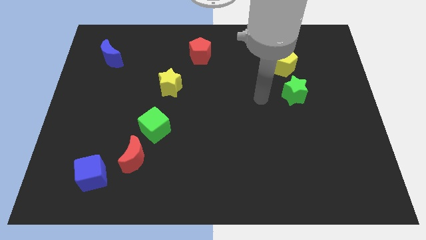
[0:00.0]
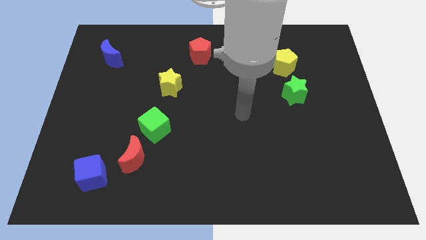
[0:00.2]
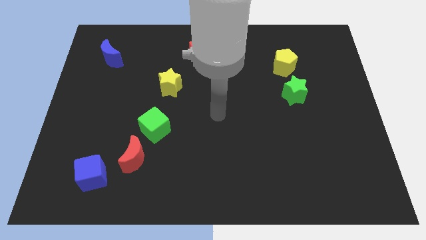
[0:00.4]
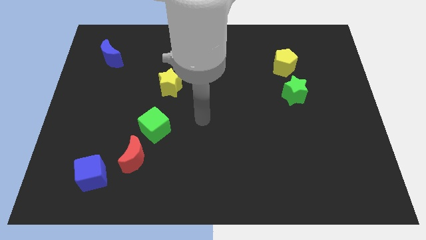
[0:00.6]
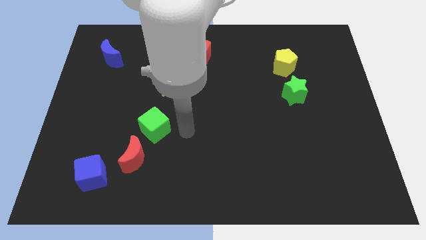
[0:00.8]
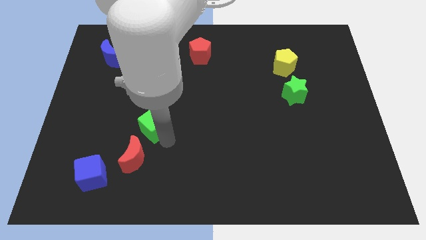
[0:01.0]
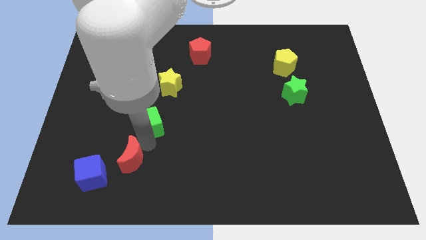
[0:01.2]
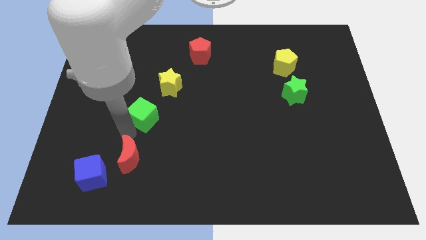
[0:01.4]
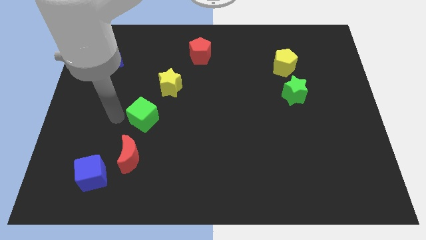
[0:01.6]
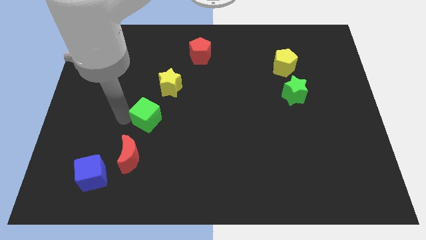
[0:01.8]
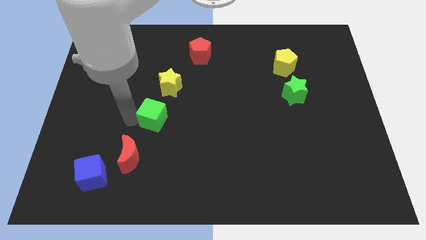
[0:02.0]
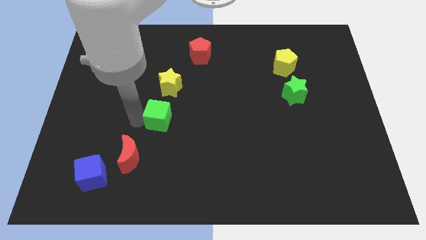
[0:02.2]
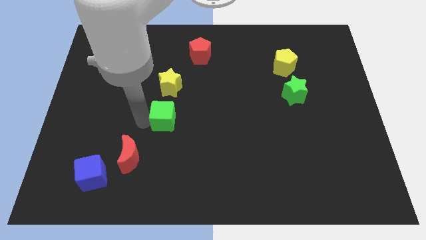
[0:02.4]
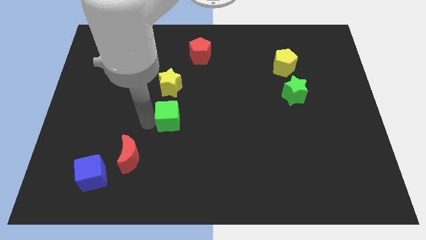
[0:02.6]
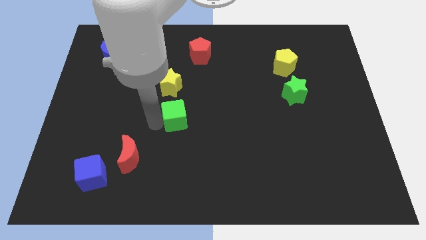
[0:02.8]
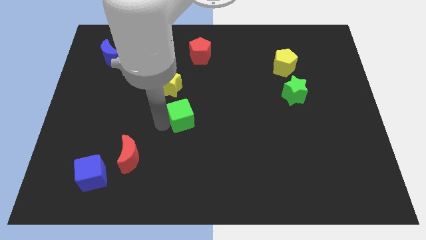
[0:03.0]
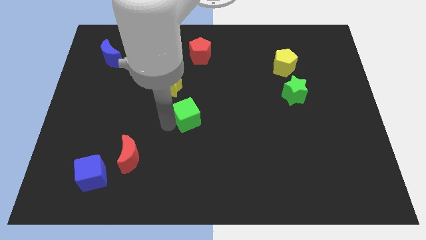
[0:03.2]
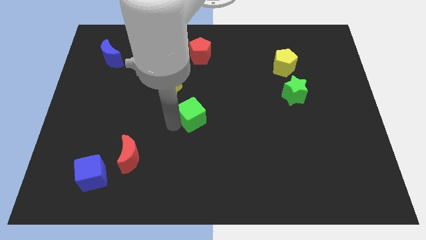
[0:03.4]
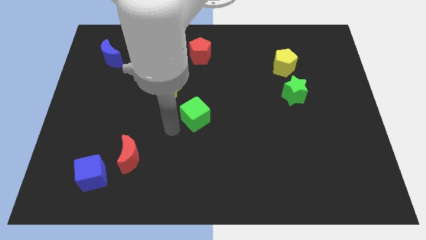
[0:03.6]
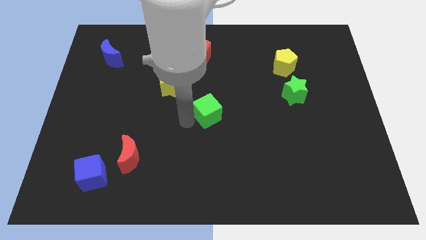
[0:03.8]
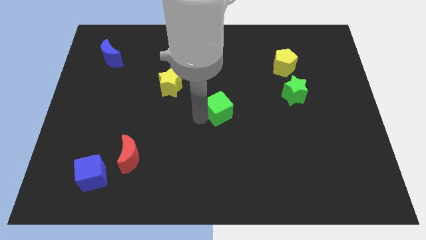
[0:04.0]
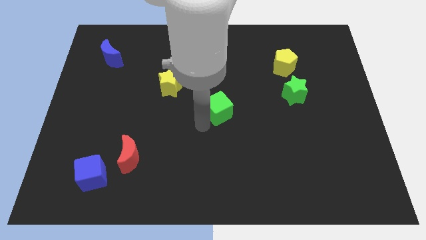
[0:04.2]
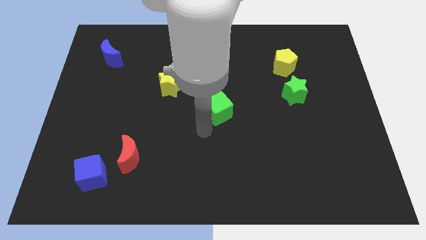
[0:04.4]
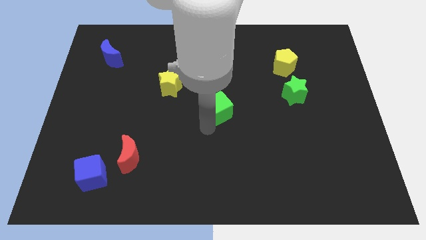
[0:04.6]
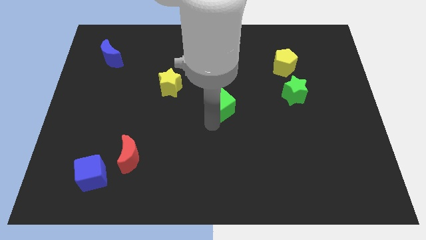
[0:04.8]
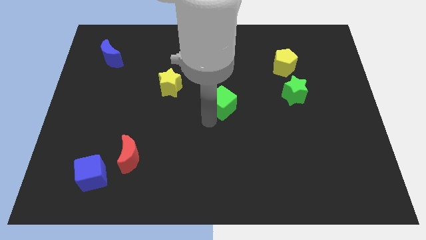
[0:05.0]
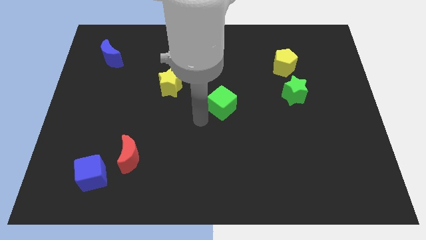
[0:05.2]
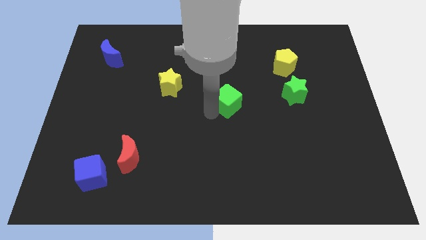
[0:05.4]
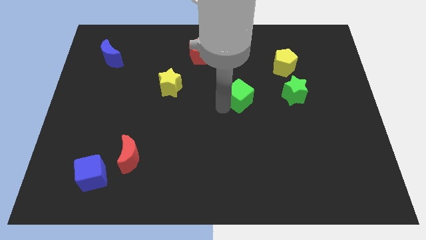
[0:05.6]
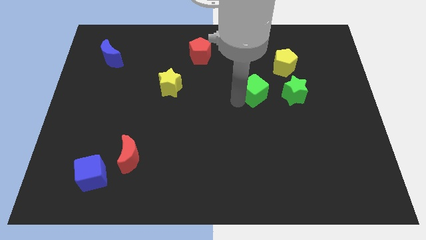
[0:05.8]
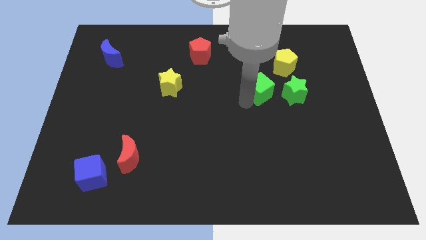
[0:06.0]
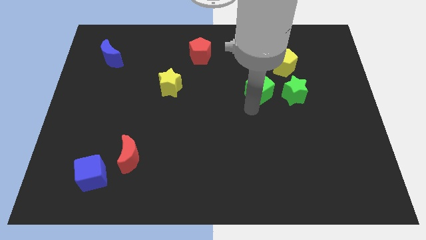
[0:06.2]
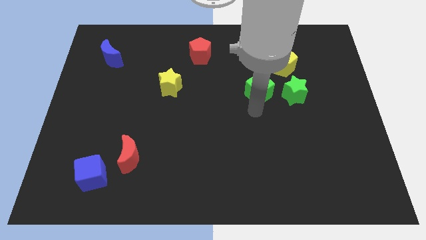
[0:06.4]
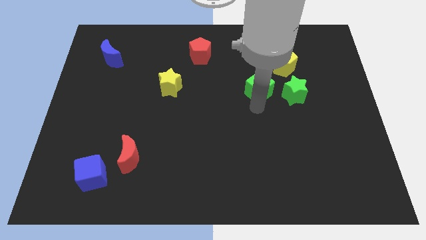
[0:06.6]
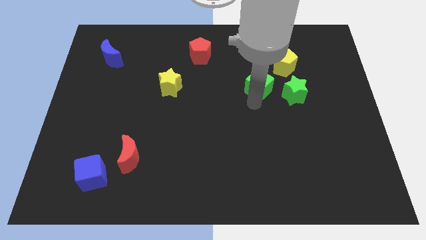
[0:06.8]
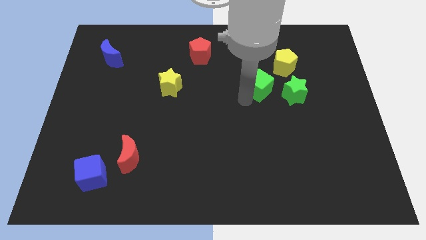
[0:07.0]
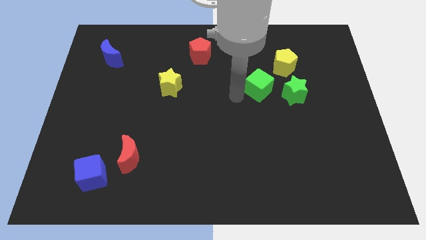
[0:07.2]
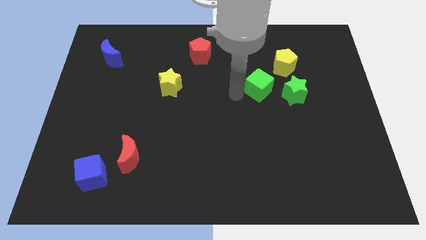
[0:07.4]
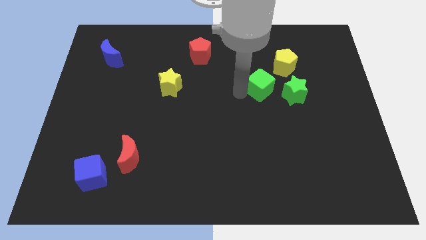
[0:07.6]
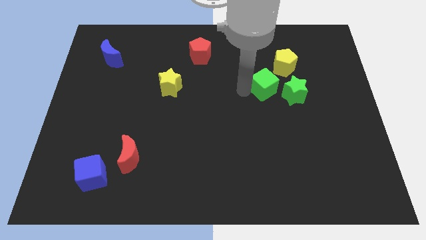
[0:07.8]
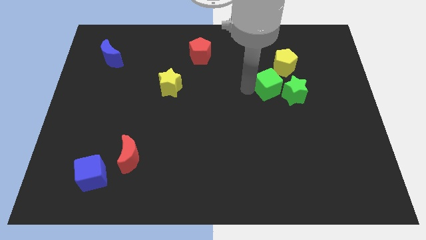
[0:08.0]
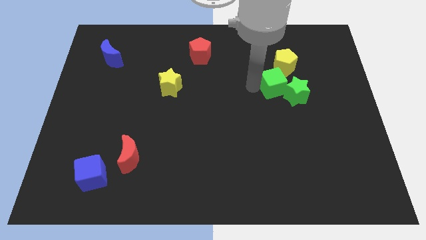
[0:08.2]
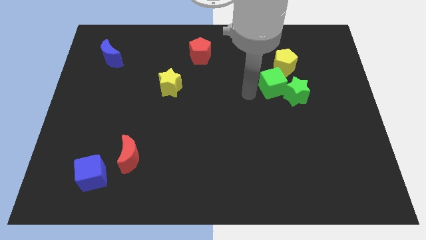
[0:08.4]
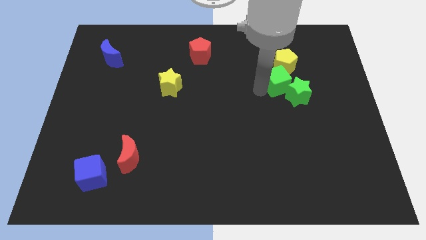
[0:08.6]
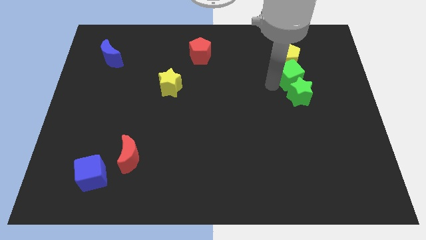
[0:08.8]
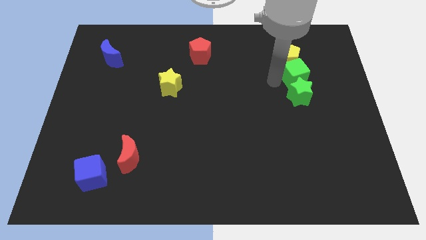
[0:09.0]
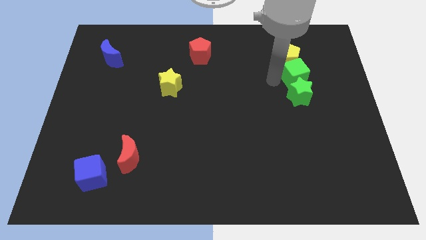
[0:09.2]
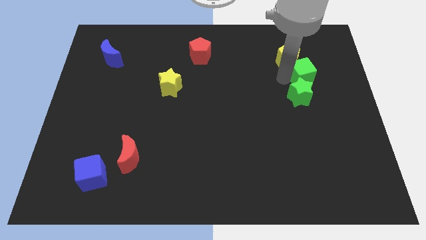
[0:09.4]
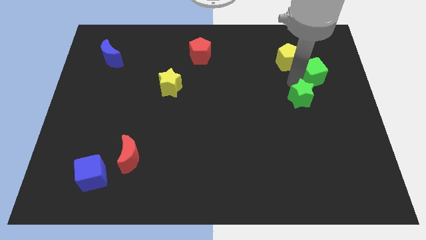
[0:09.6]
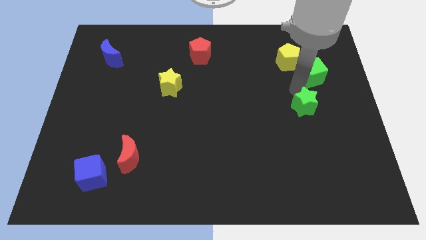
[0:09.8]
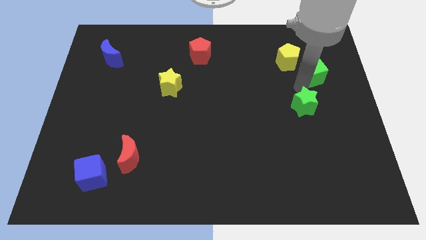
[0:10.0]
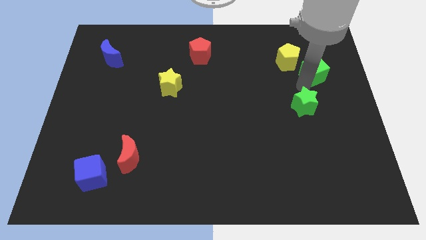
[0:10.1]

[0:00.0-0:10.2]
slide the green cube to the right side of the yellow pentagon

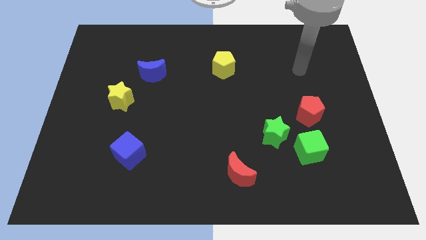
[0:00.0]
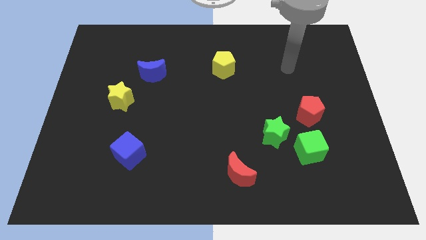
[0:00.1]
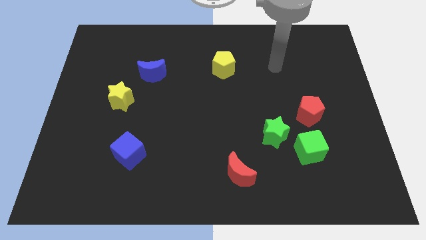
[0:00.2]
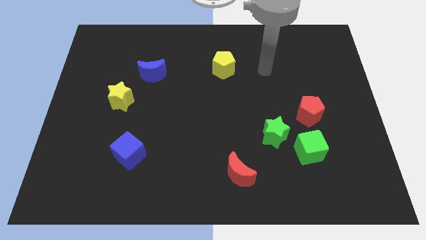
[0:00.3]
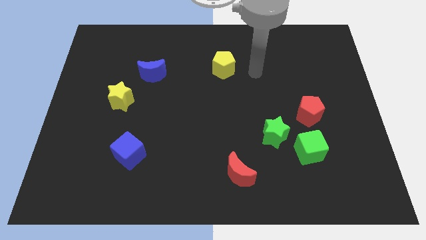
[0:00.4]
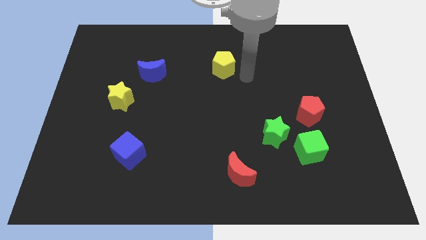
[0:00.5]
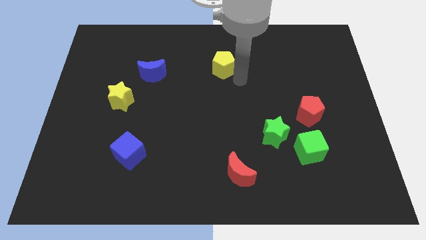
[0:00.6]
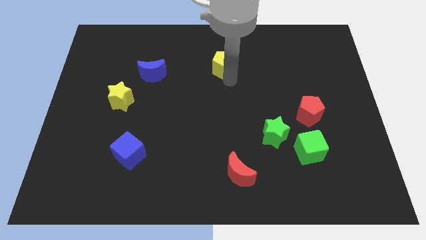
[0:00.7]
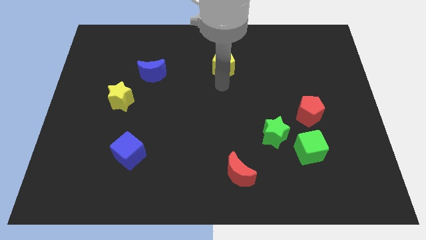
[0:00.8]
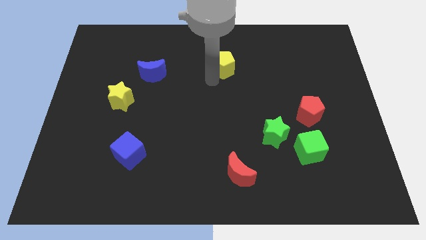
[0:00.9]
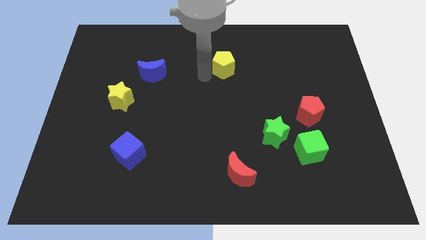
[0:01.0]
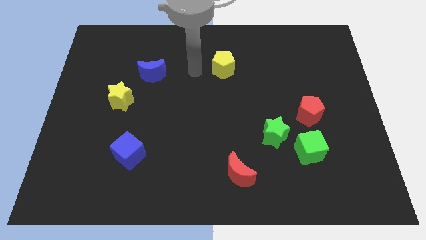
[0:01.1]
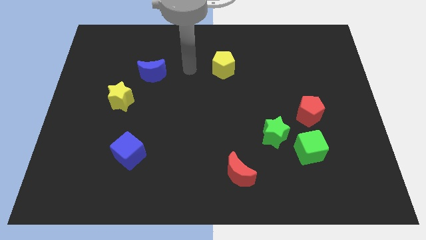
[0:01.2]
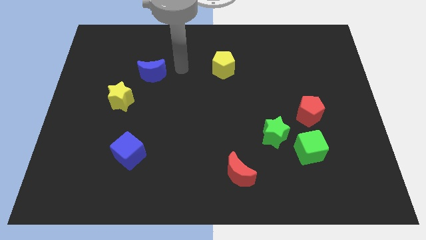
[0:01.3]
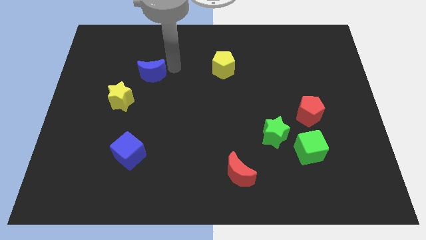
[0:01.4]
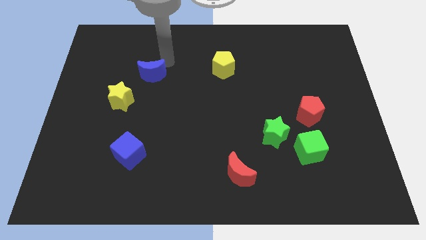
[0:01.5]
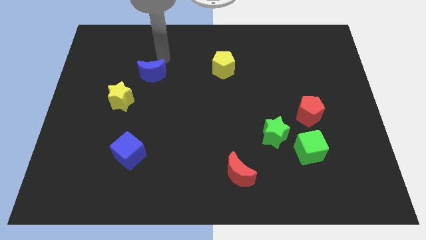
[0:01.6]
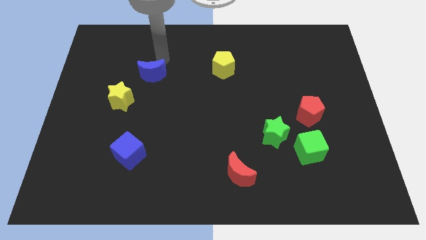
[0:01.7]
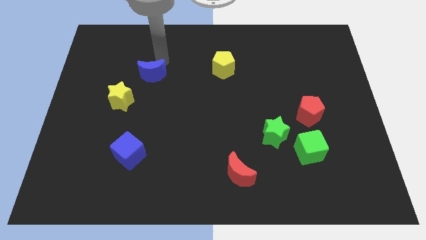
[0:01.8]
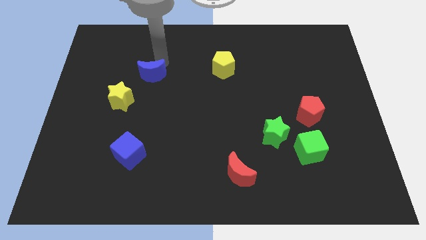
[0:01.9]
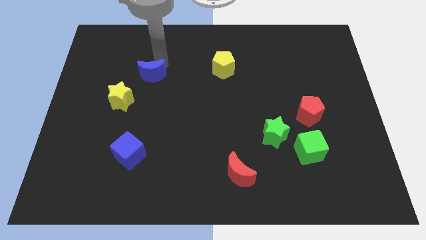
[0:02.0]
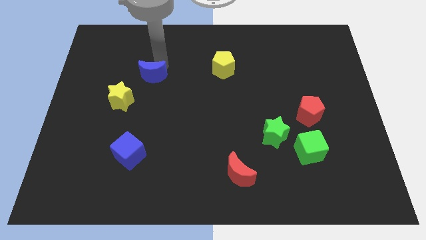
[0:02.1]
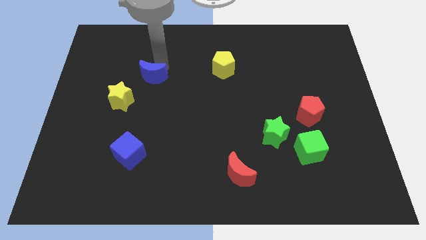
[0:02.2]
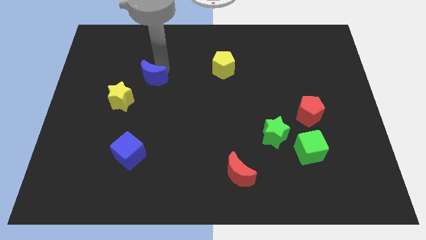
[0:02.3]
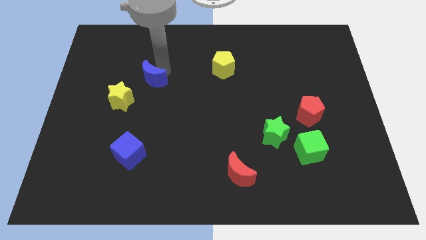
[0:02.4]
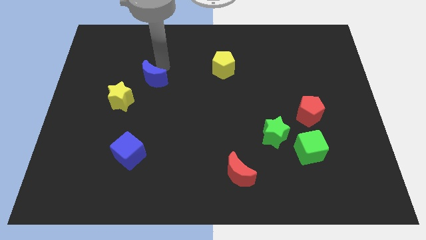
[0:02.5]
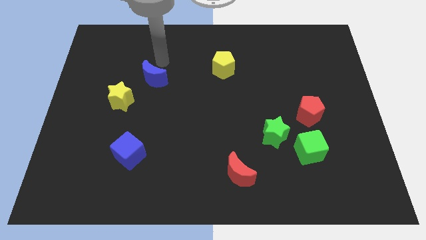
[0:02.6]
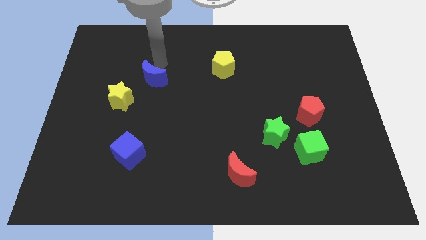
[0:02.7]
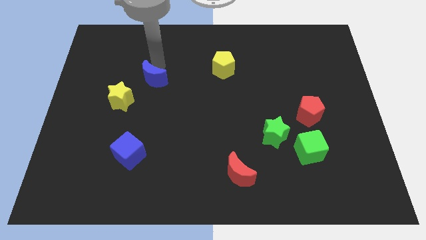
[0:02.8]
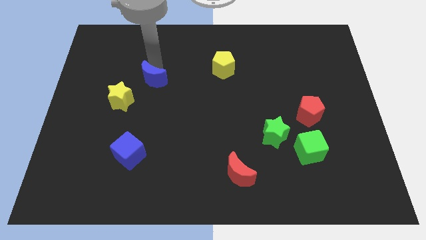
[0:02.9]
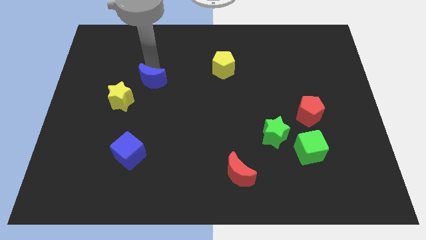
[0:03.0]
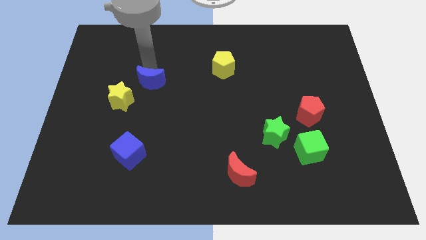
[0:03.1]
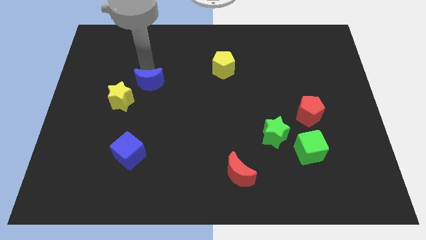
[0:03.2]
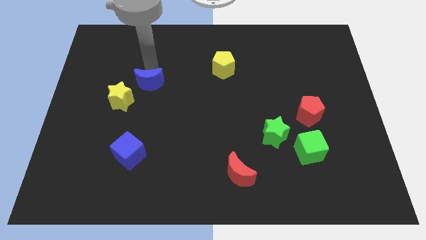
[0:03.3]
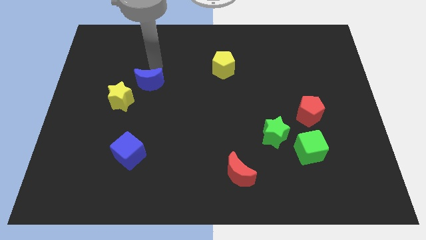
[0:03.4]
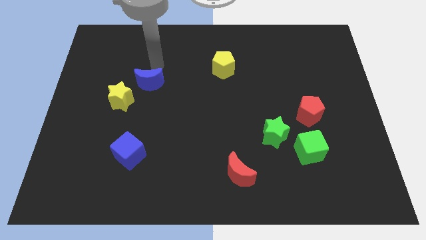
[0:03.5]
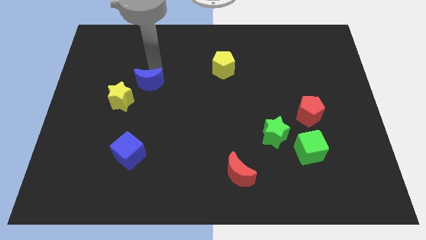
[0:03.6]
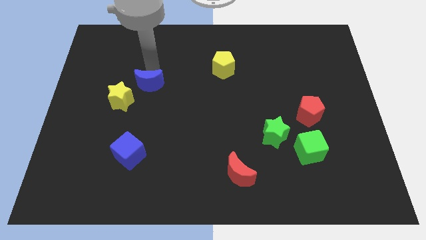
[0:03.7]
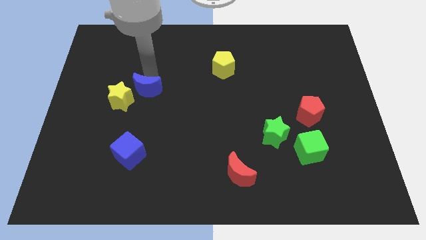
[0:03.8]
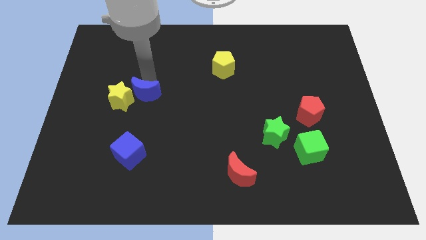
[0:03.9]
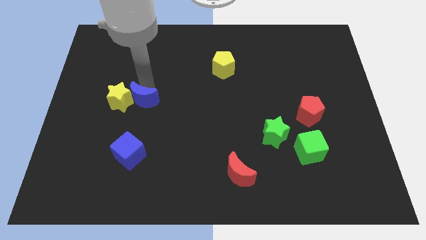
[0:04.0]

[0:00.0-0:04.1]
slide the blue moon to the bottom right side of the yellow star
